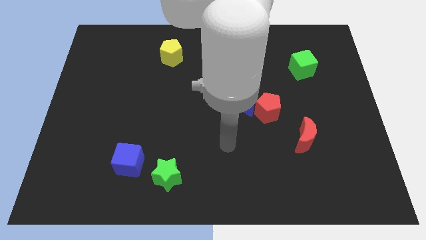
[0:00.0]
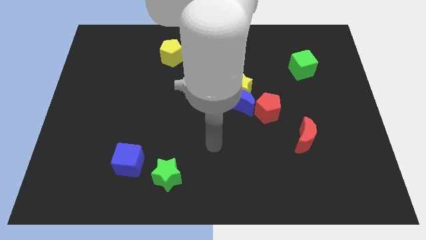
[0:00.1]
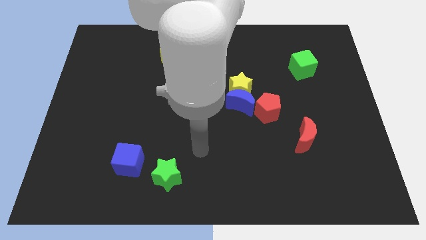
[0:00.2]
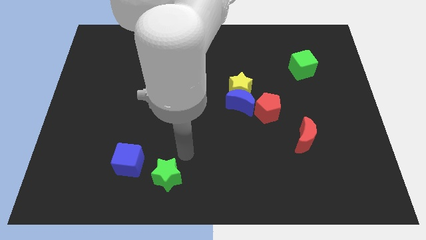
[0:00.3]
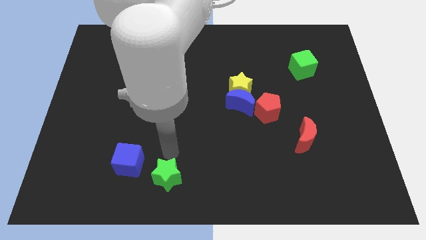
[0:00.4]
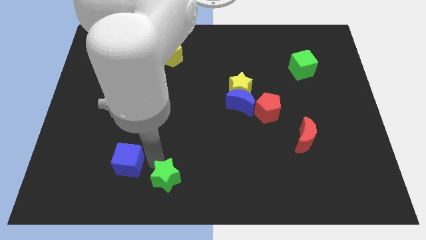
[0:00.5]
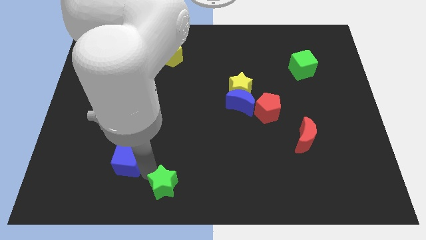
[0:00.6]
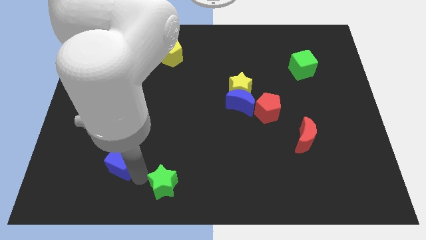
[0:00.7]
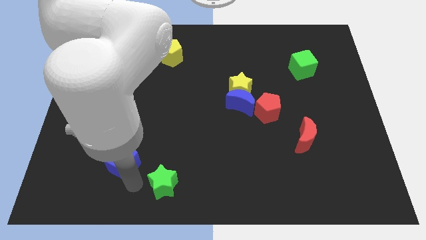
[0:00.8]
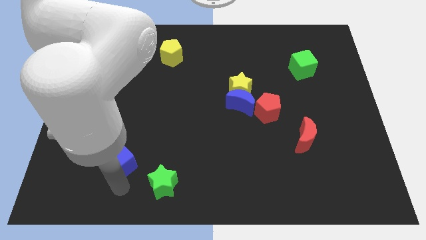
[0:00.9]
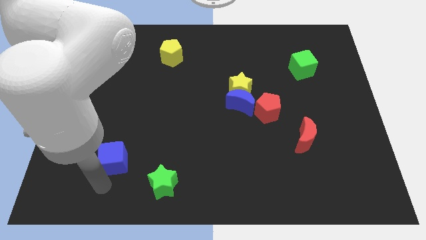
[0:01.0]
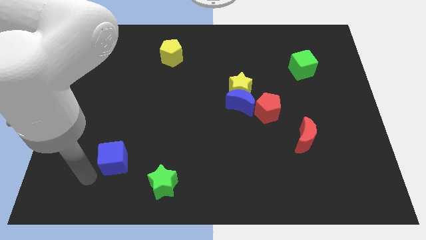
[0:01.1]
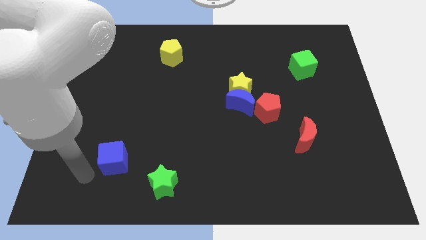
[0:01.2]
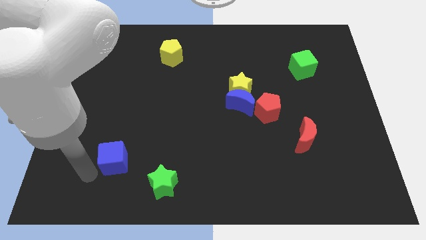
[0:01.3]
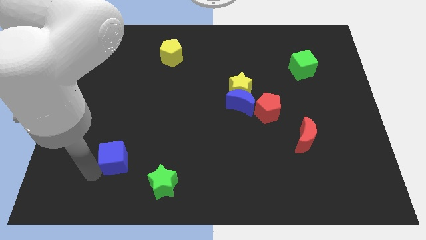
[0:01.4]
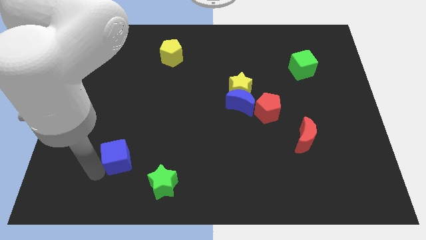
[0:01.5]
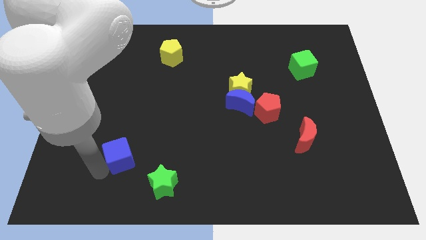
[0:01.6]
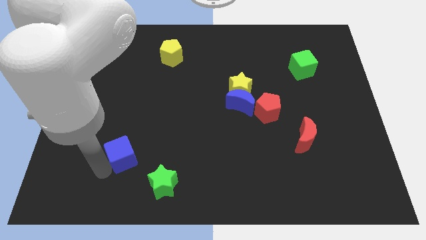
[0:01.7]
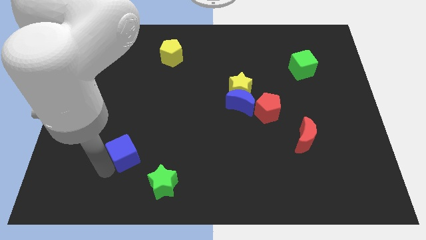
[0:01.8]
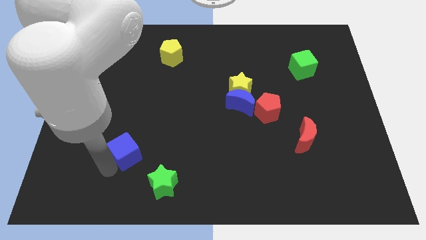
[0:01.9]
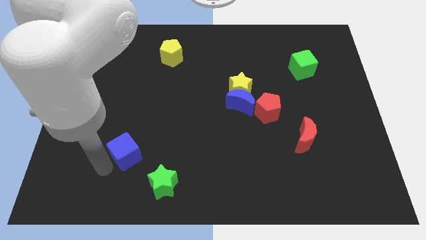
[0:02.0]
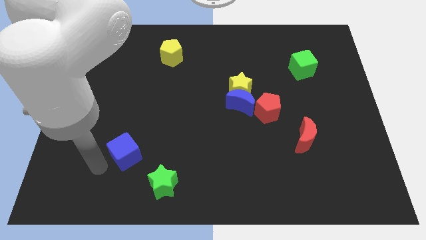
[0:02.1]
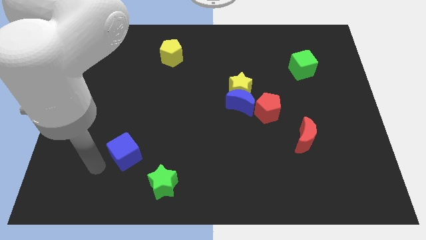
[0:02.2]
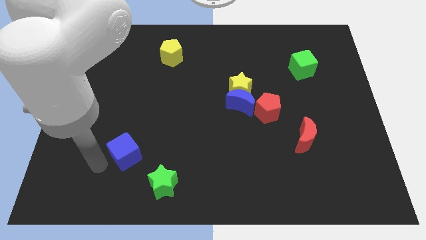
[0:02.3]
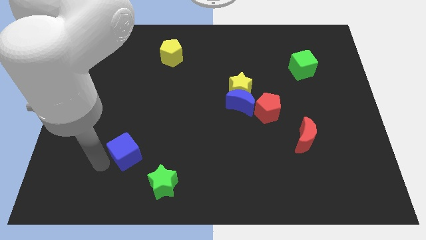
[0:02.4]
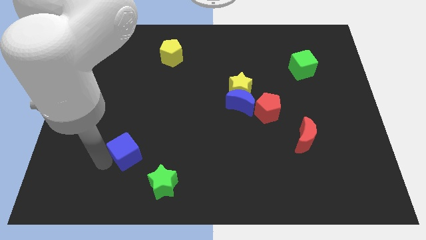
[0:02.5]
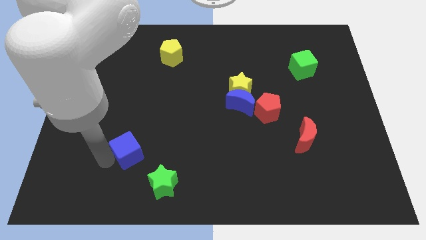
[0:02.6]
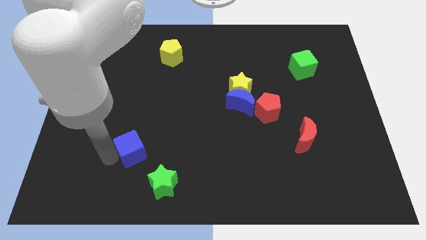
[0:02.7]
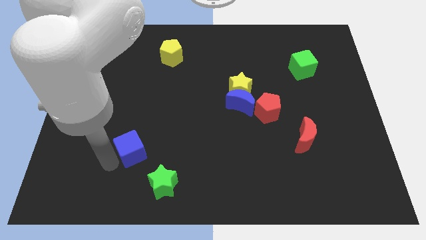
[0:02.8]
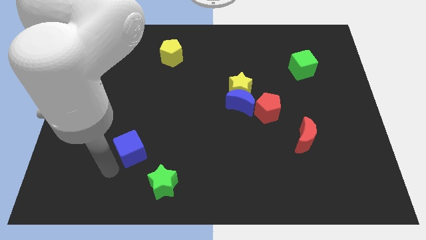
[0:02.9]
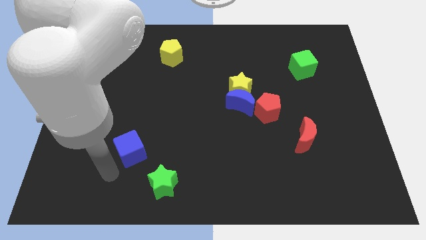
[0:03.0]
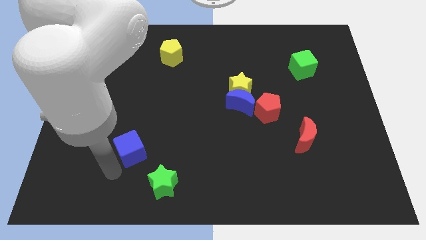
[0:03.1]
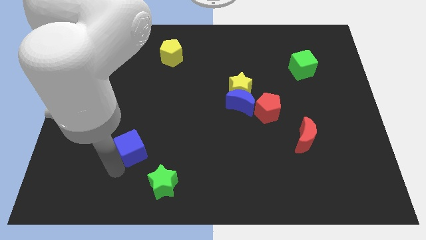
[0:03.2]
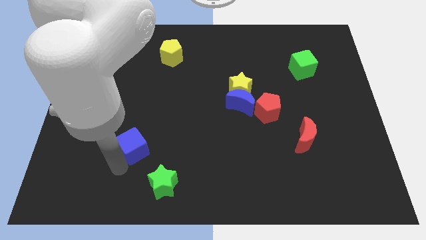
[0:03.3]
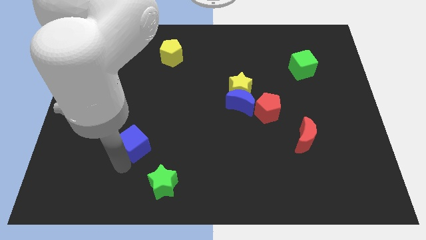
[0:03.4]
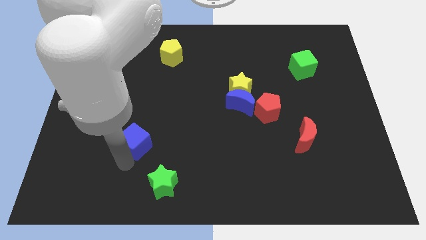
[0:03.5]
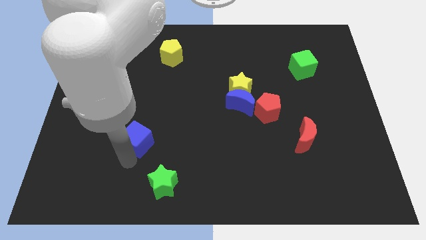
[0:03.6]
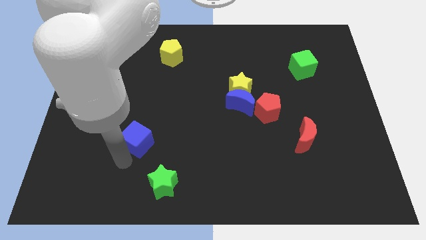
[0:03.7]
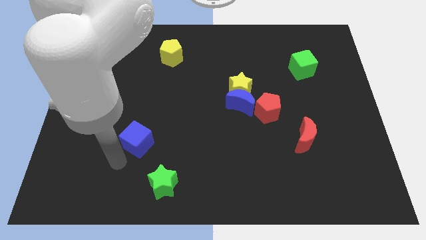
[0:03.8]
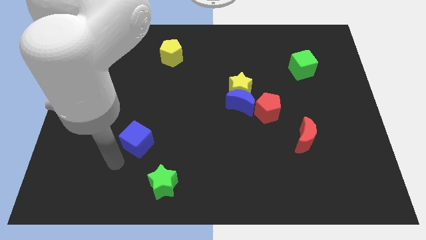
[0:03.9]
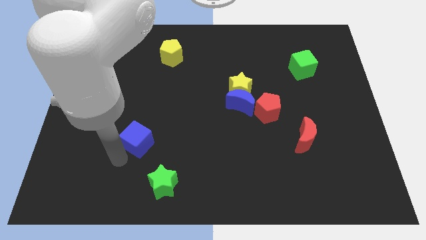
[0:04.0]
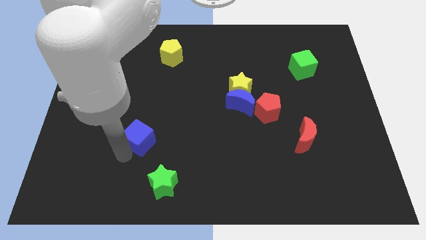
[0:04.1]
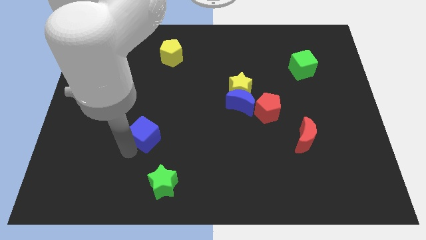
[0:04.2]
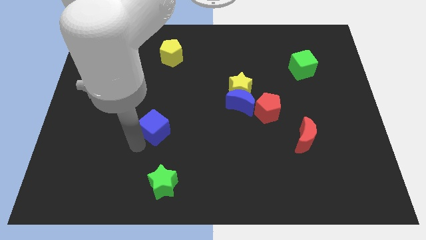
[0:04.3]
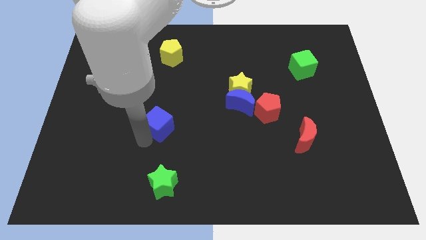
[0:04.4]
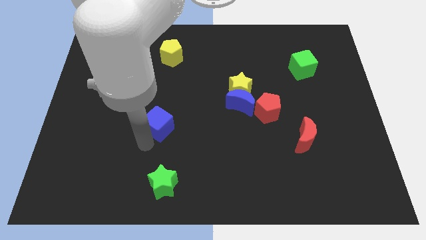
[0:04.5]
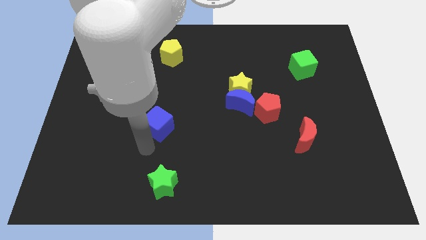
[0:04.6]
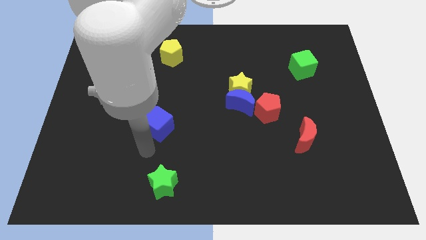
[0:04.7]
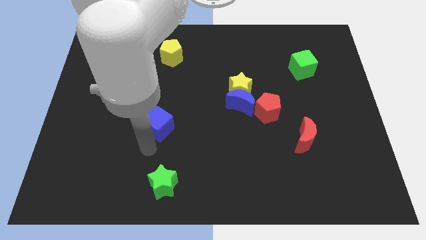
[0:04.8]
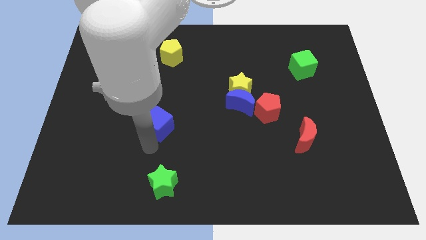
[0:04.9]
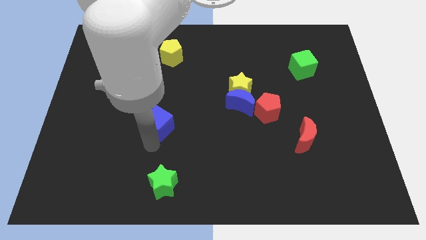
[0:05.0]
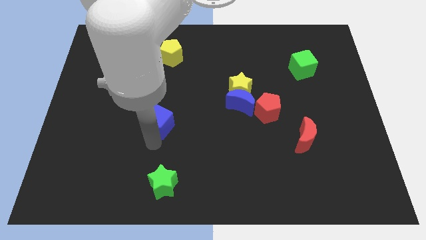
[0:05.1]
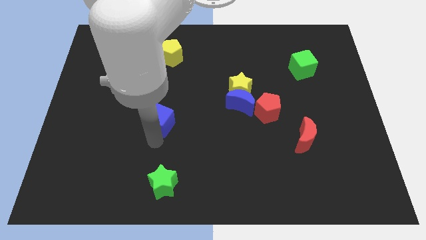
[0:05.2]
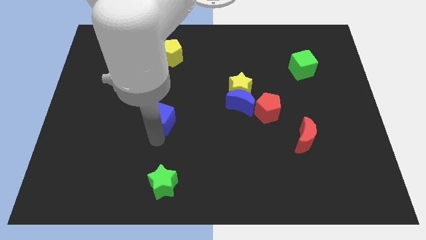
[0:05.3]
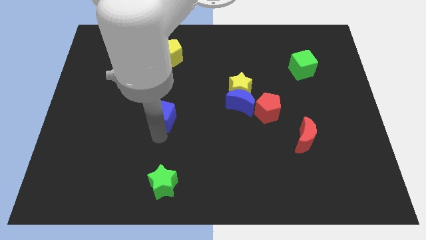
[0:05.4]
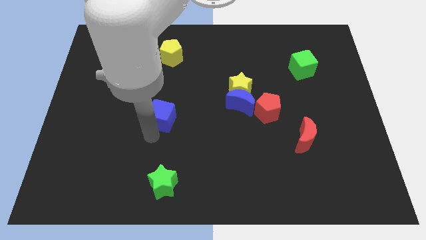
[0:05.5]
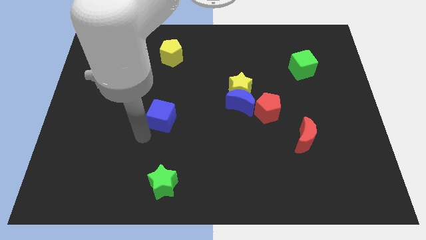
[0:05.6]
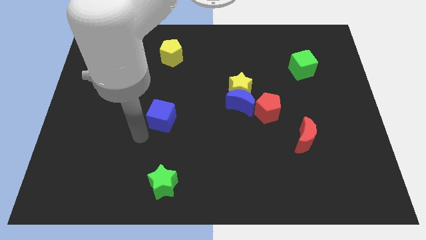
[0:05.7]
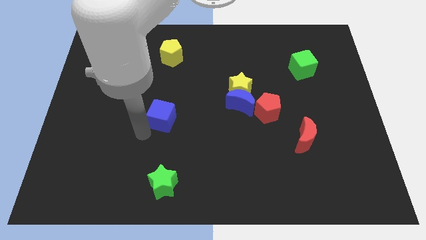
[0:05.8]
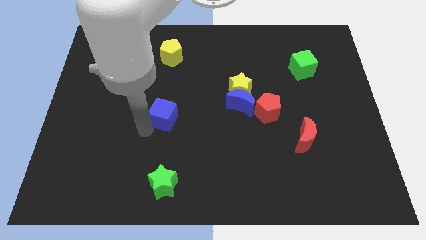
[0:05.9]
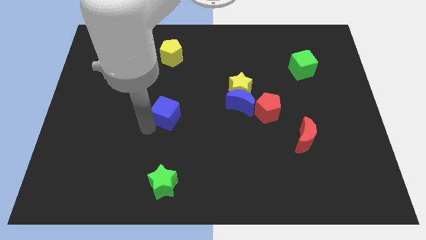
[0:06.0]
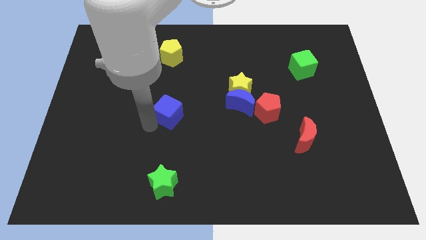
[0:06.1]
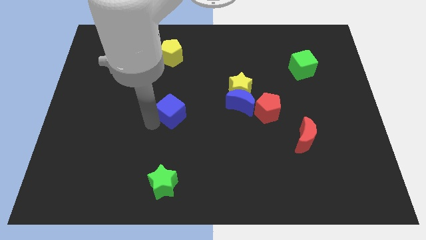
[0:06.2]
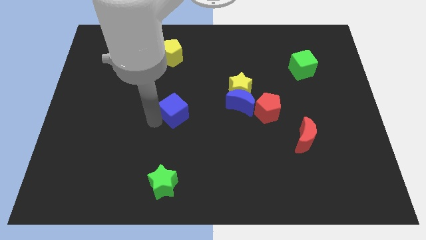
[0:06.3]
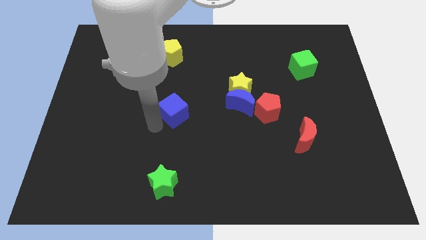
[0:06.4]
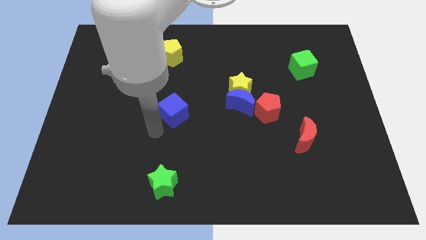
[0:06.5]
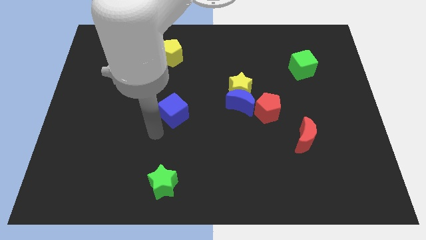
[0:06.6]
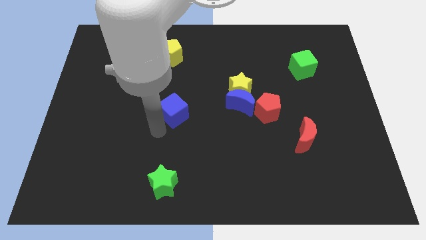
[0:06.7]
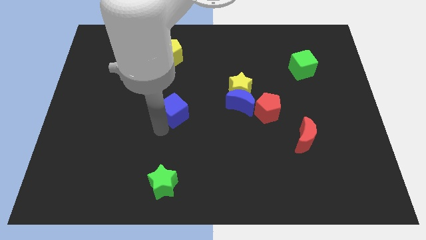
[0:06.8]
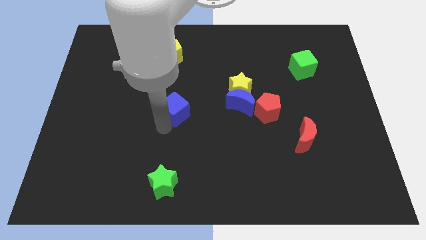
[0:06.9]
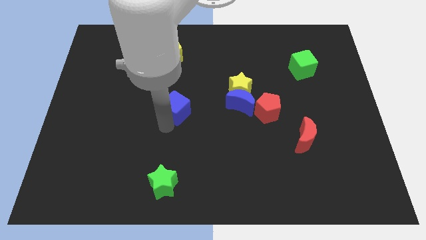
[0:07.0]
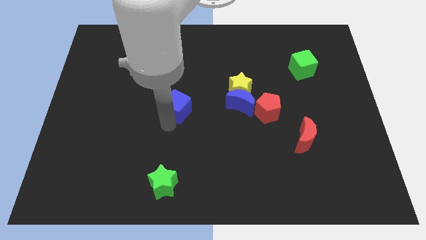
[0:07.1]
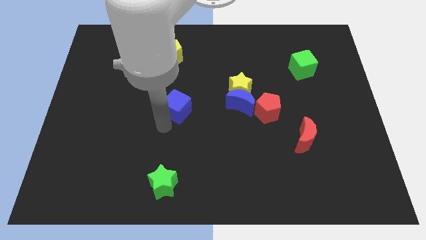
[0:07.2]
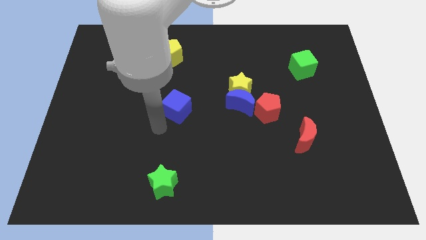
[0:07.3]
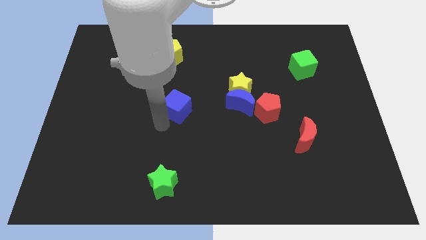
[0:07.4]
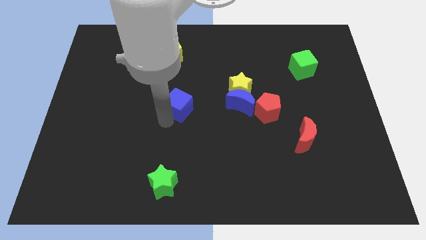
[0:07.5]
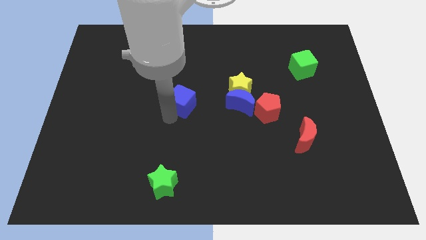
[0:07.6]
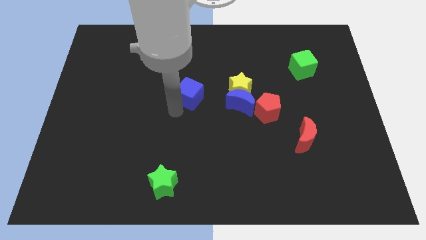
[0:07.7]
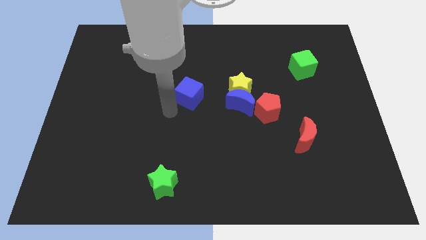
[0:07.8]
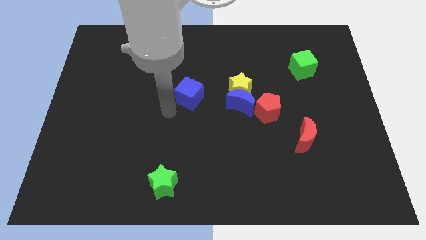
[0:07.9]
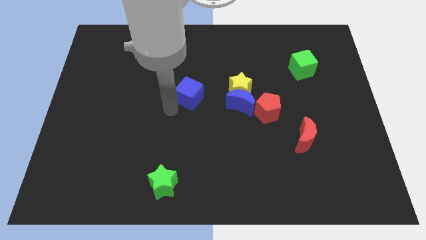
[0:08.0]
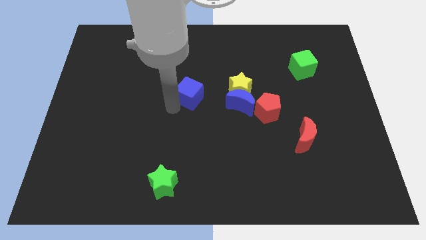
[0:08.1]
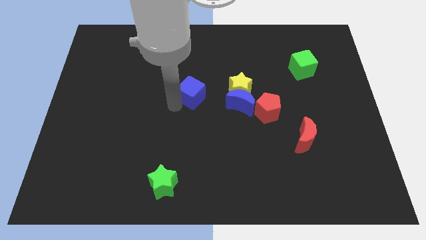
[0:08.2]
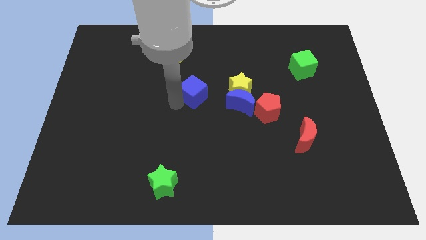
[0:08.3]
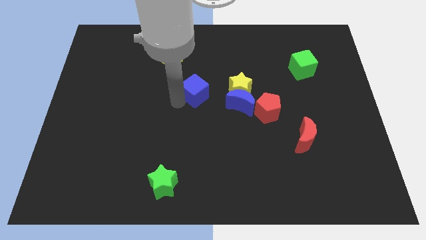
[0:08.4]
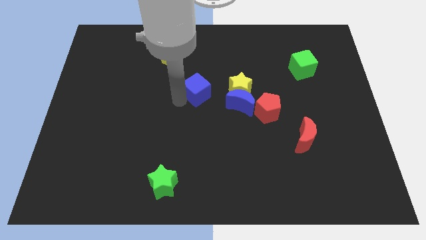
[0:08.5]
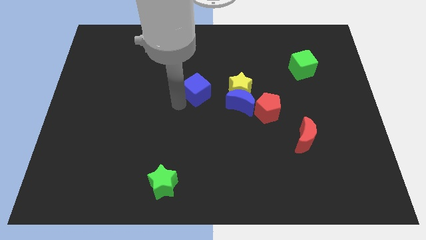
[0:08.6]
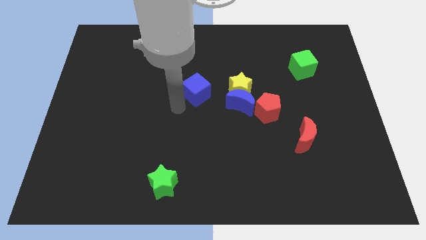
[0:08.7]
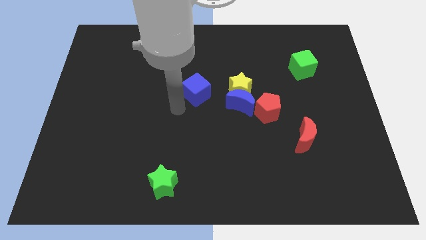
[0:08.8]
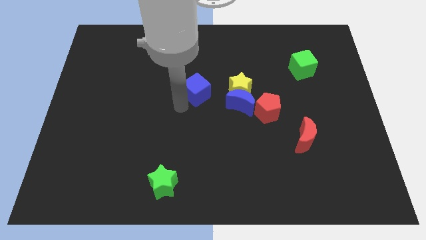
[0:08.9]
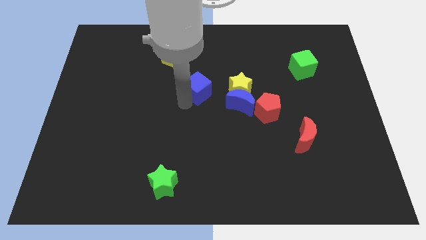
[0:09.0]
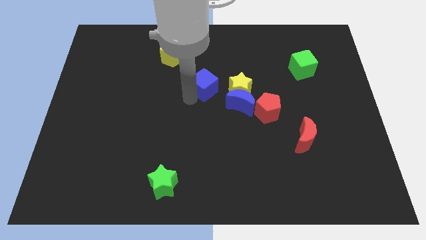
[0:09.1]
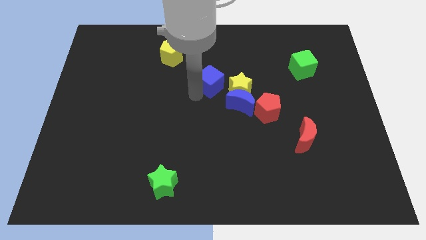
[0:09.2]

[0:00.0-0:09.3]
slide the blue cube to the top left side of the yellow star
